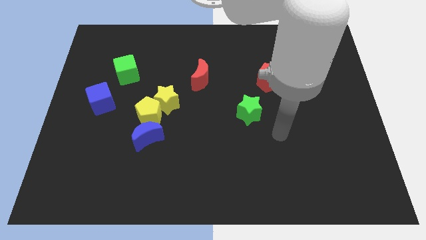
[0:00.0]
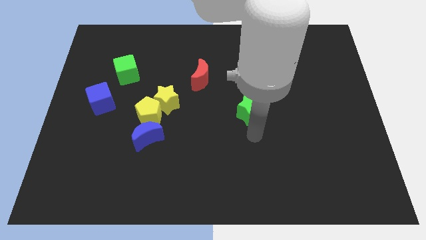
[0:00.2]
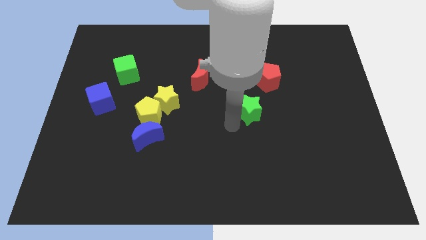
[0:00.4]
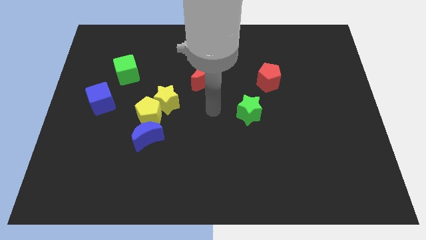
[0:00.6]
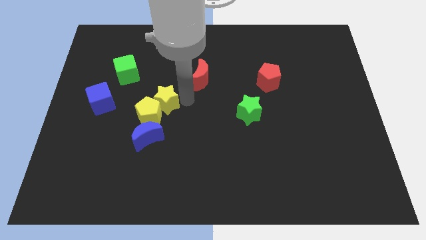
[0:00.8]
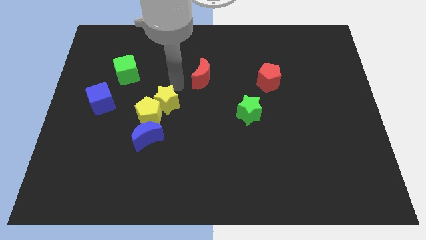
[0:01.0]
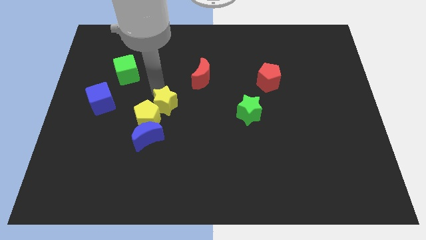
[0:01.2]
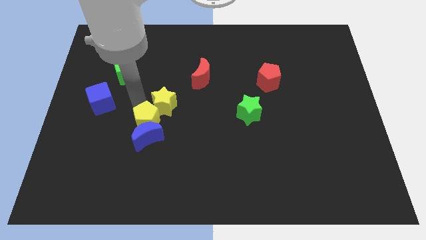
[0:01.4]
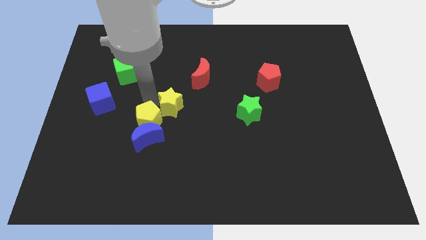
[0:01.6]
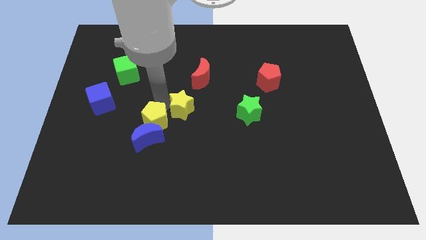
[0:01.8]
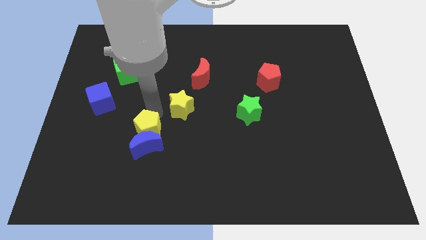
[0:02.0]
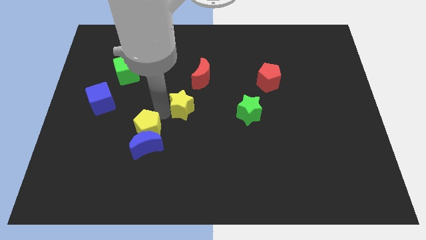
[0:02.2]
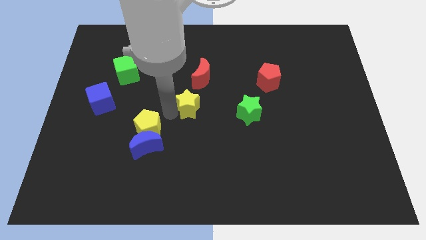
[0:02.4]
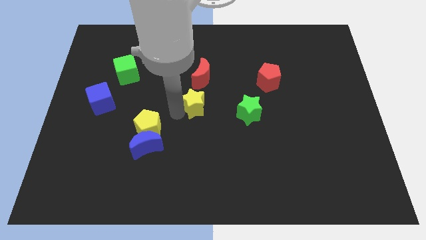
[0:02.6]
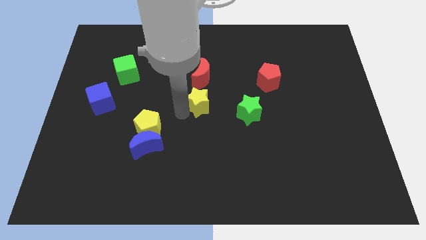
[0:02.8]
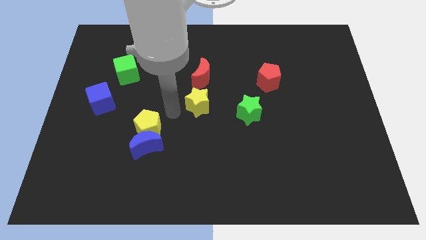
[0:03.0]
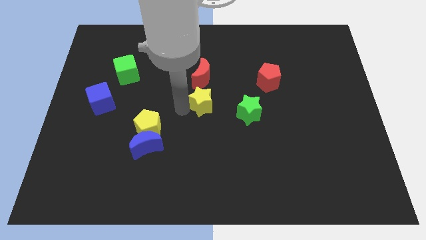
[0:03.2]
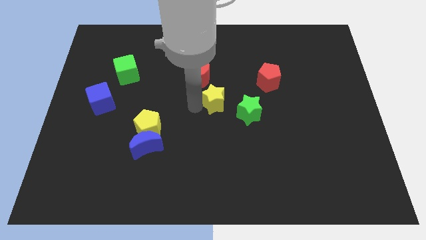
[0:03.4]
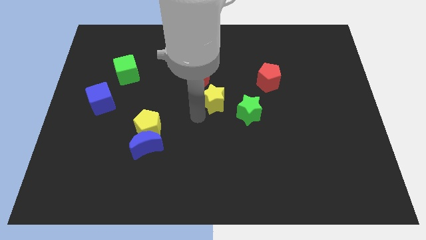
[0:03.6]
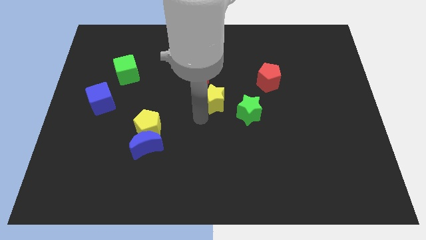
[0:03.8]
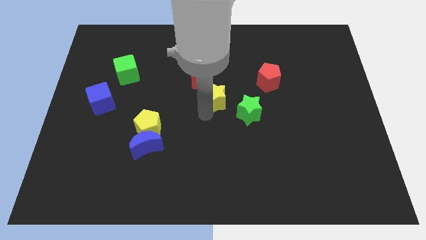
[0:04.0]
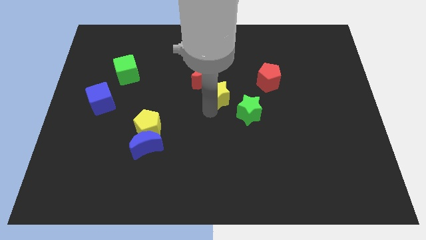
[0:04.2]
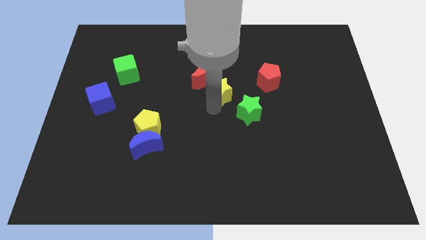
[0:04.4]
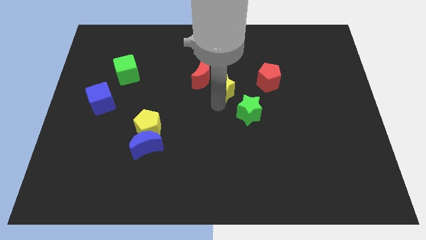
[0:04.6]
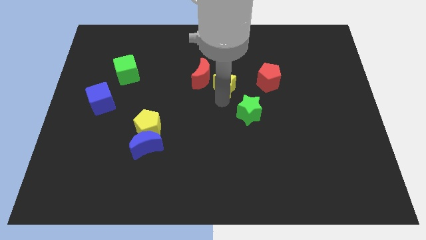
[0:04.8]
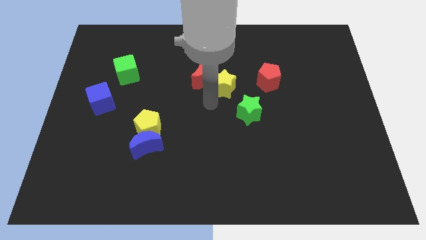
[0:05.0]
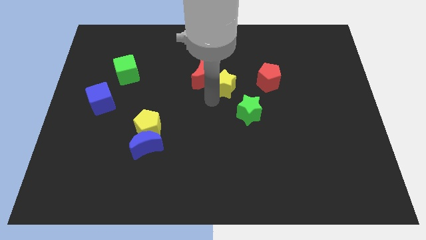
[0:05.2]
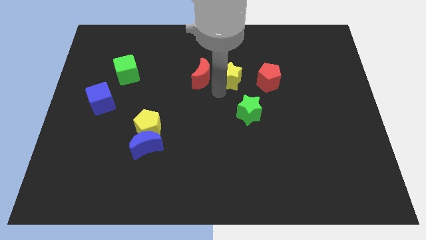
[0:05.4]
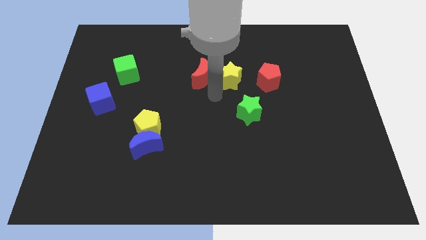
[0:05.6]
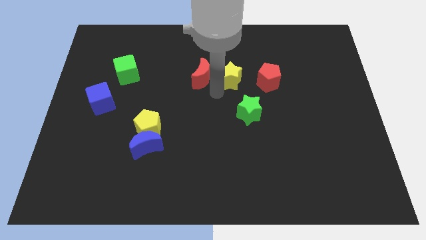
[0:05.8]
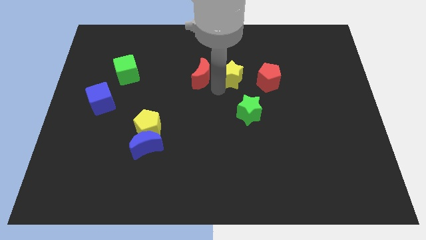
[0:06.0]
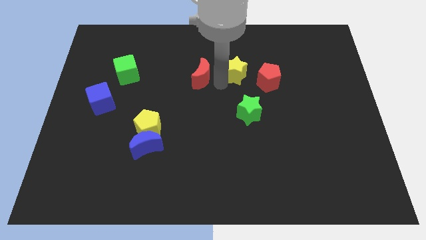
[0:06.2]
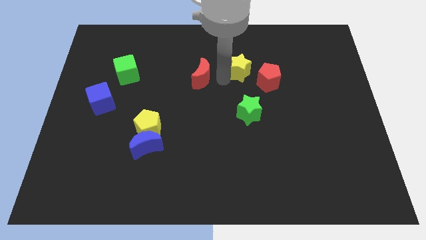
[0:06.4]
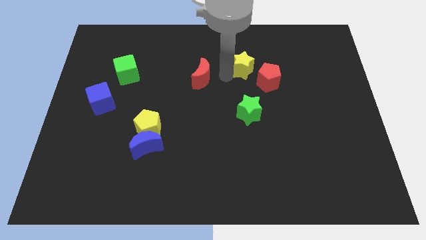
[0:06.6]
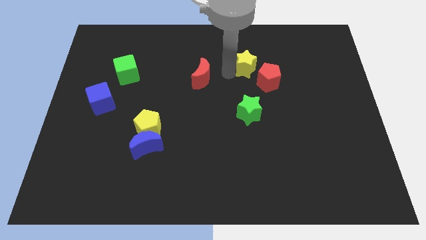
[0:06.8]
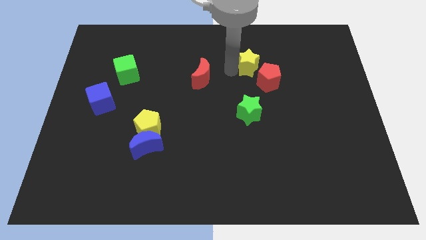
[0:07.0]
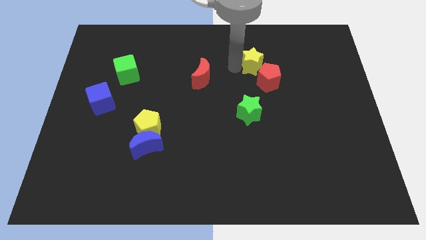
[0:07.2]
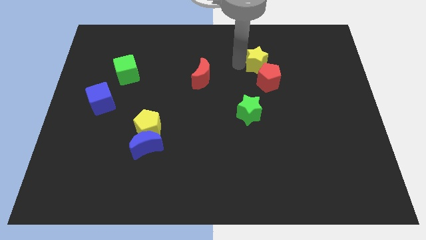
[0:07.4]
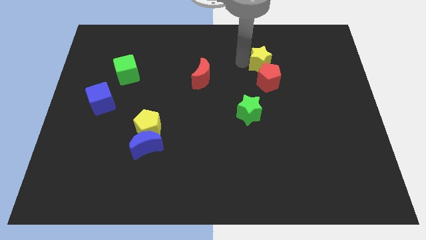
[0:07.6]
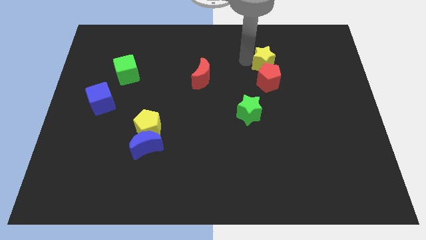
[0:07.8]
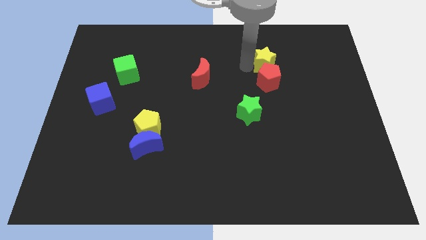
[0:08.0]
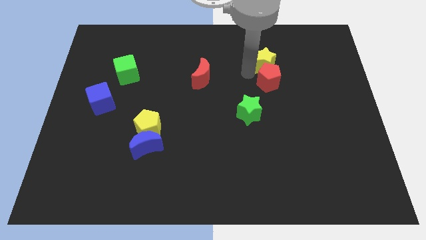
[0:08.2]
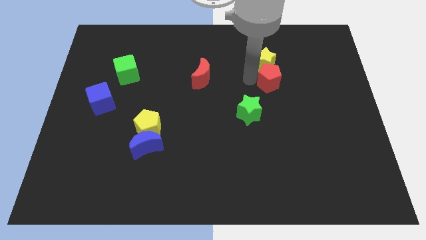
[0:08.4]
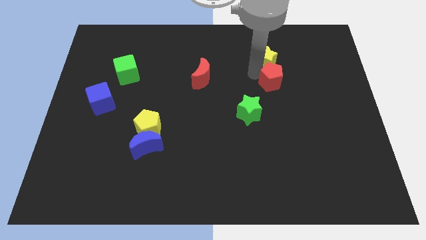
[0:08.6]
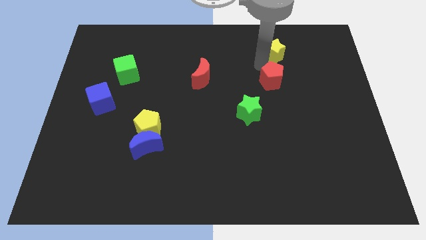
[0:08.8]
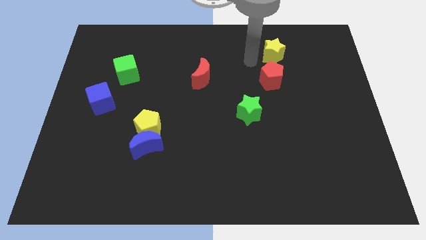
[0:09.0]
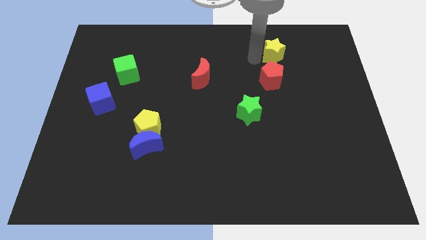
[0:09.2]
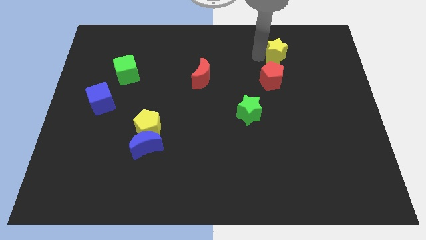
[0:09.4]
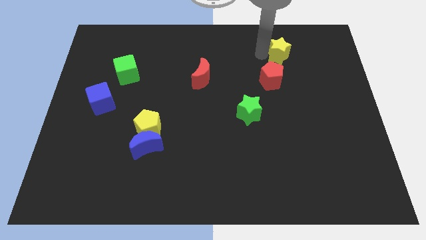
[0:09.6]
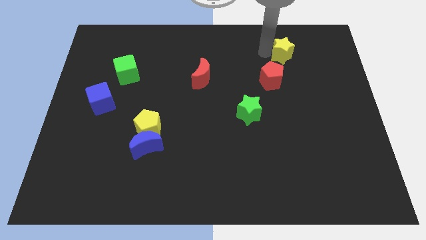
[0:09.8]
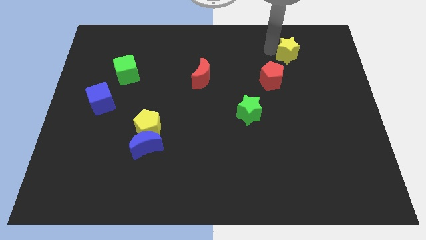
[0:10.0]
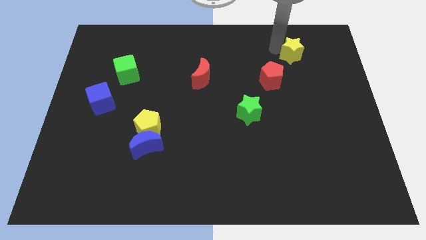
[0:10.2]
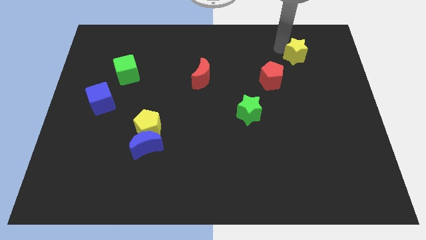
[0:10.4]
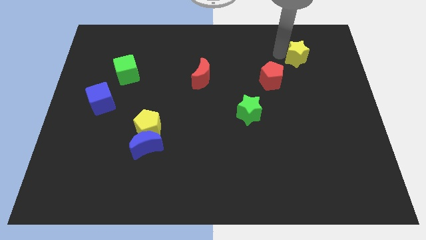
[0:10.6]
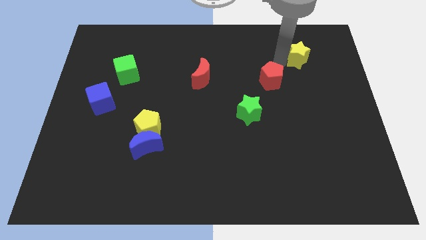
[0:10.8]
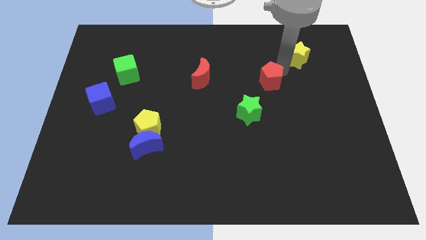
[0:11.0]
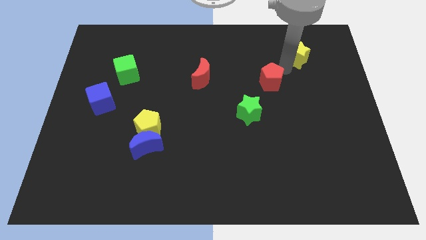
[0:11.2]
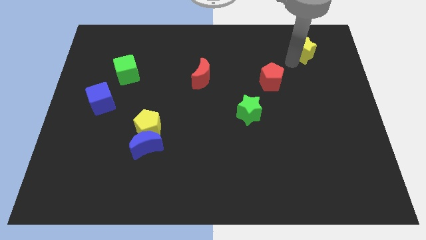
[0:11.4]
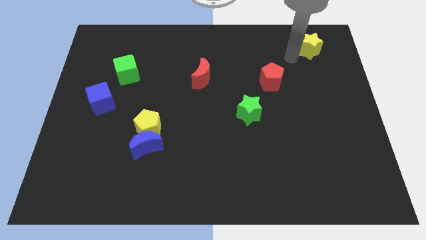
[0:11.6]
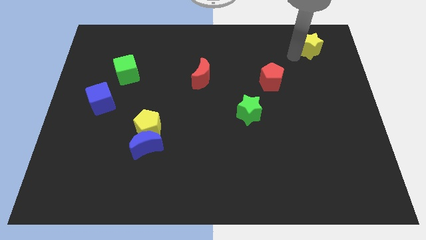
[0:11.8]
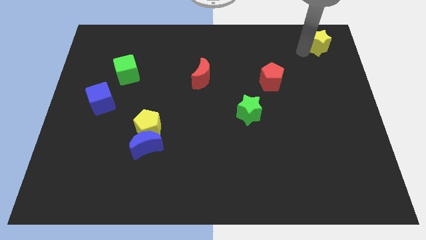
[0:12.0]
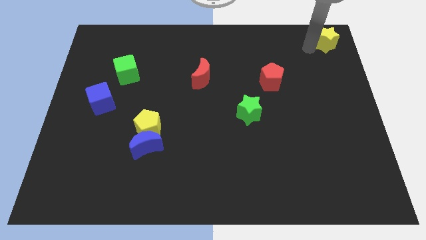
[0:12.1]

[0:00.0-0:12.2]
push the yellow star to the top right

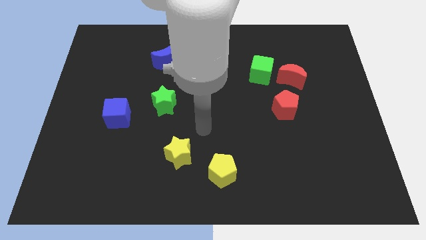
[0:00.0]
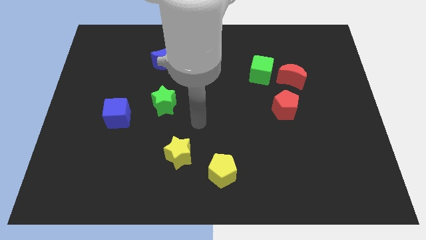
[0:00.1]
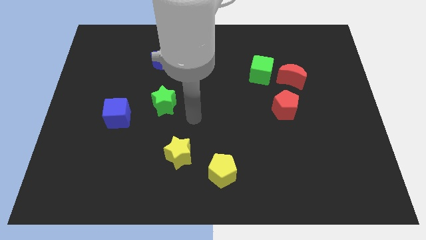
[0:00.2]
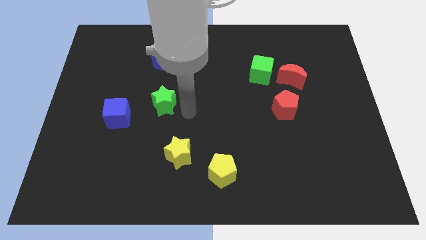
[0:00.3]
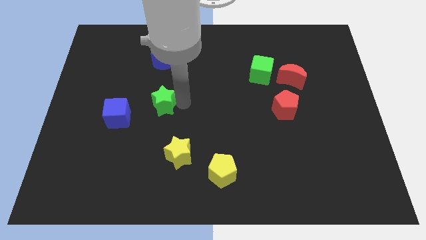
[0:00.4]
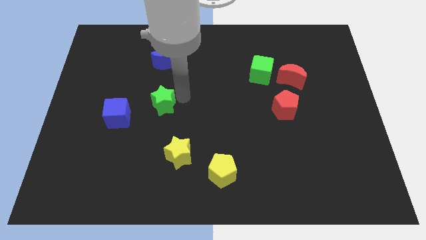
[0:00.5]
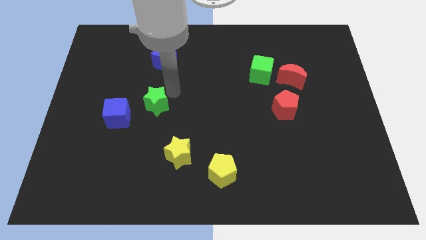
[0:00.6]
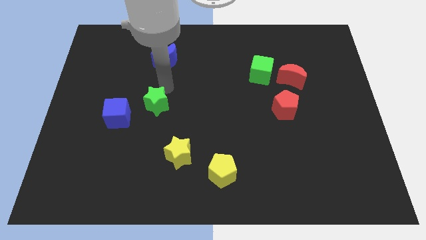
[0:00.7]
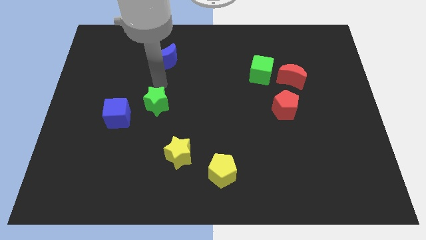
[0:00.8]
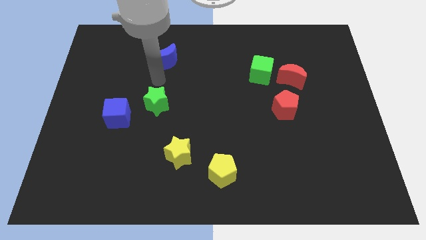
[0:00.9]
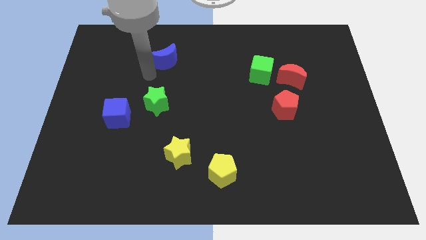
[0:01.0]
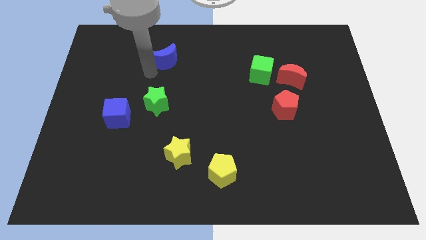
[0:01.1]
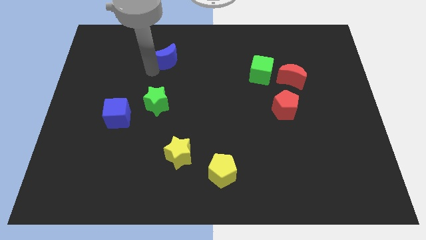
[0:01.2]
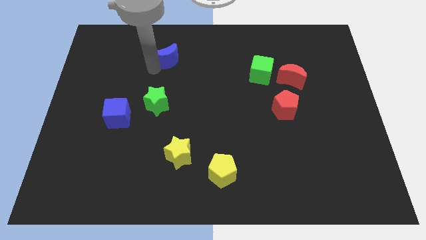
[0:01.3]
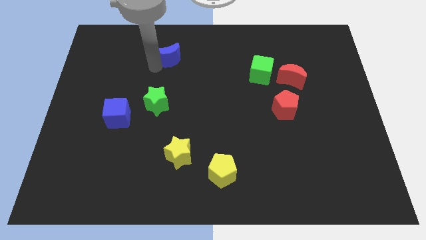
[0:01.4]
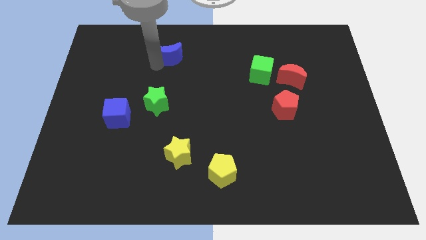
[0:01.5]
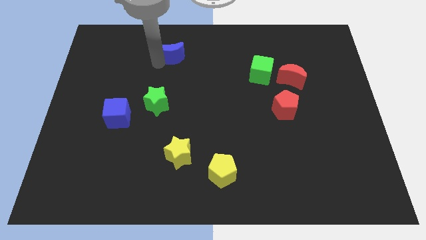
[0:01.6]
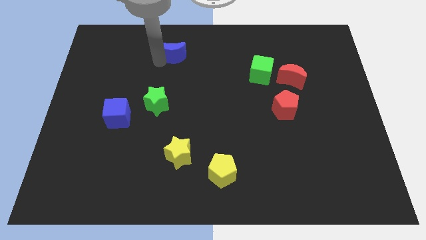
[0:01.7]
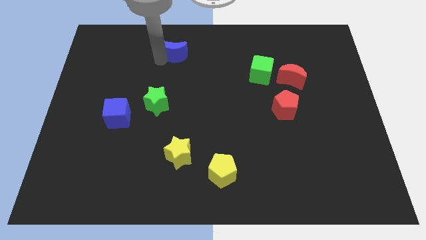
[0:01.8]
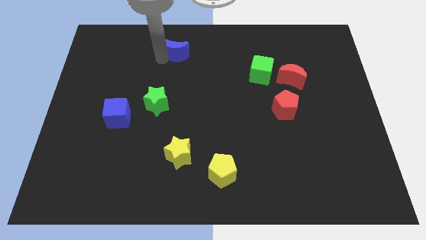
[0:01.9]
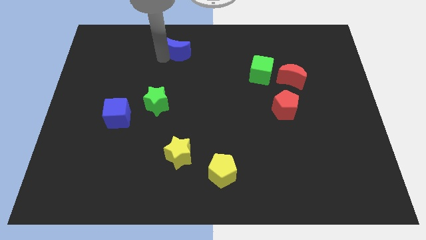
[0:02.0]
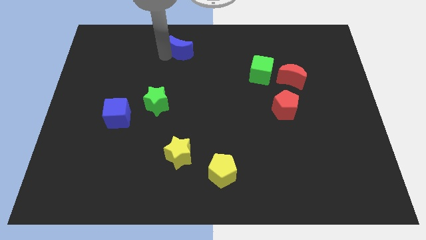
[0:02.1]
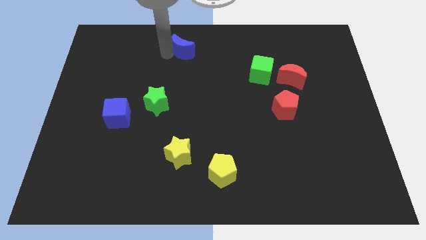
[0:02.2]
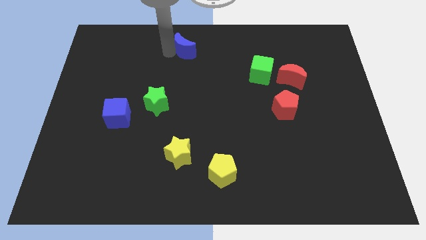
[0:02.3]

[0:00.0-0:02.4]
move the blue moon to the towards your base
